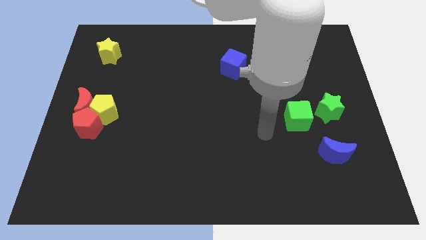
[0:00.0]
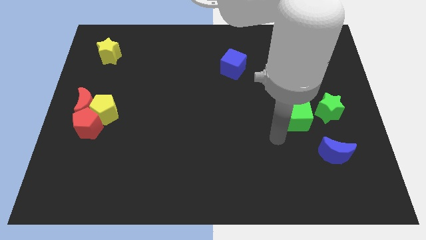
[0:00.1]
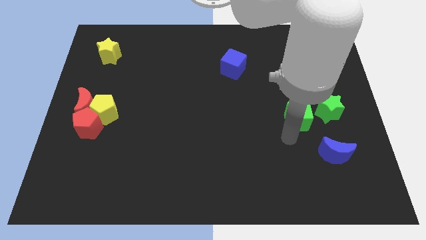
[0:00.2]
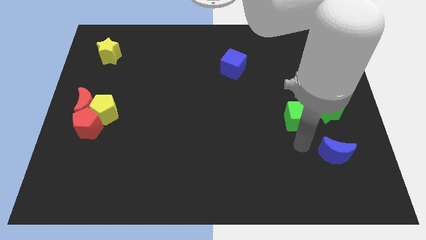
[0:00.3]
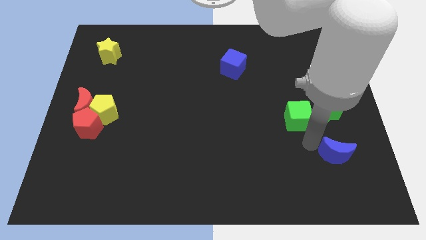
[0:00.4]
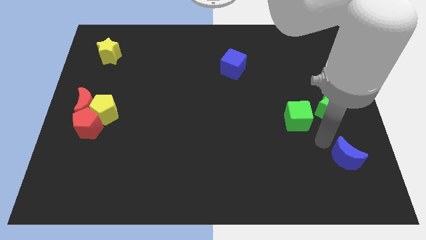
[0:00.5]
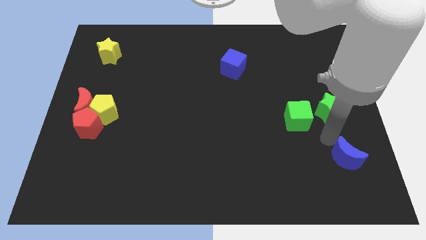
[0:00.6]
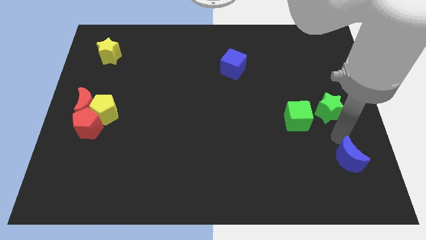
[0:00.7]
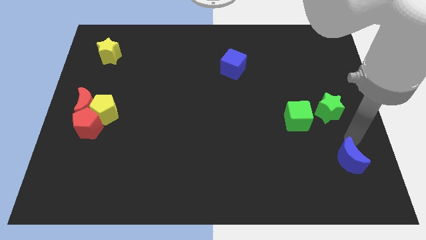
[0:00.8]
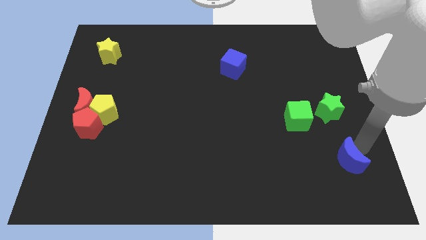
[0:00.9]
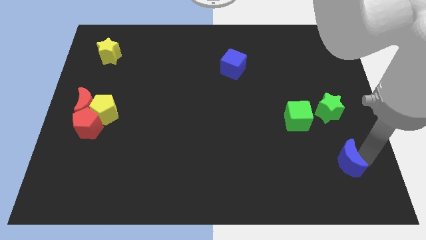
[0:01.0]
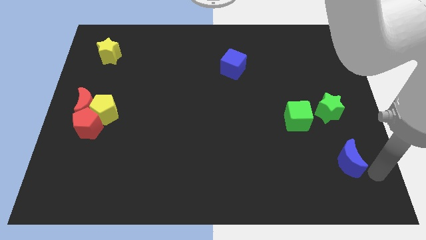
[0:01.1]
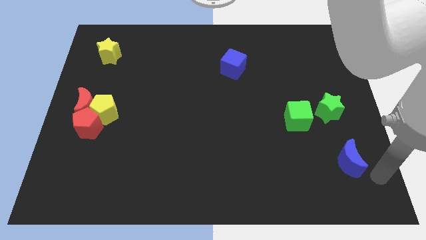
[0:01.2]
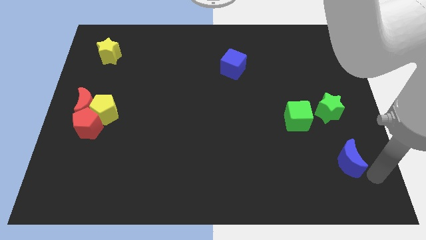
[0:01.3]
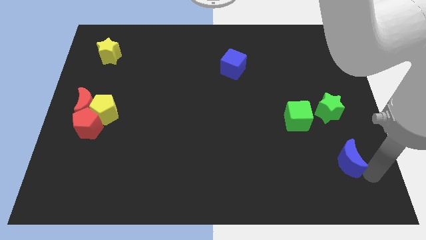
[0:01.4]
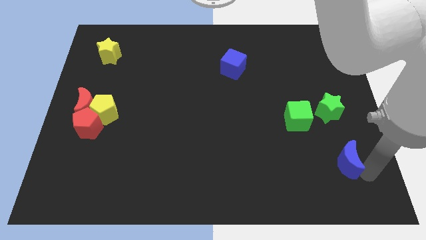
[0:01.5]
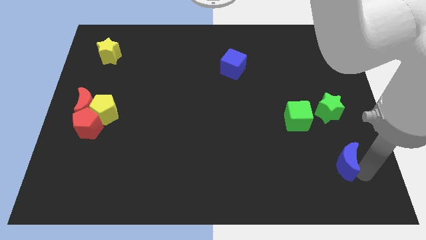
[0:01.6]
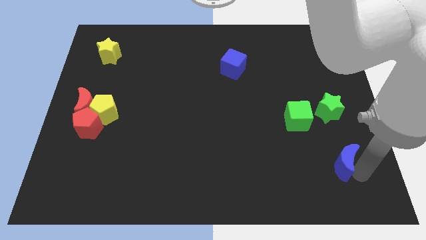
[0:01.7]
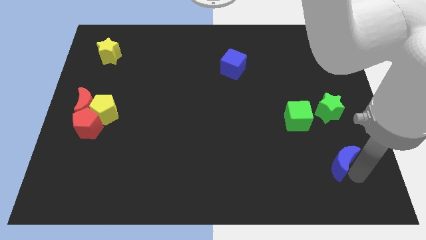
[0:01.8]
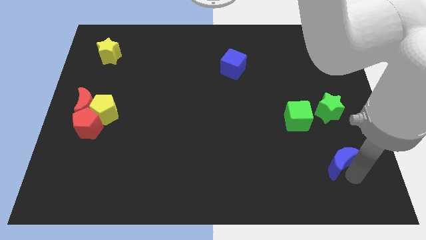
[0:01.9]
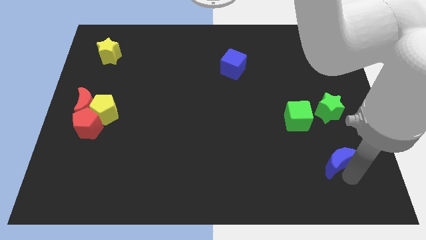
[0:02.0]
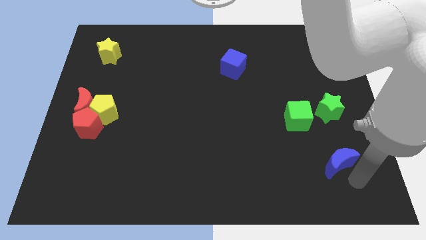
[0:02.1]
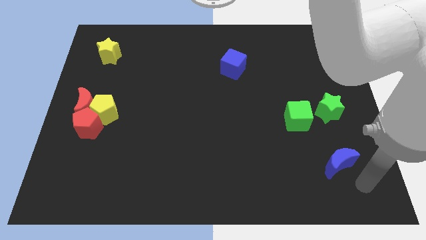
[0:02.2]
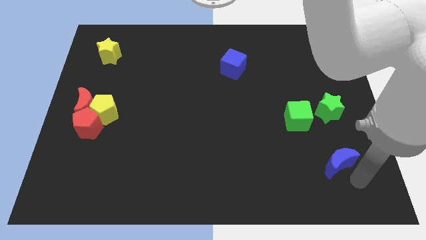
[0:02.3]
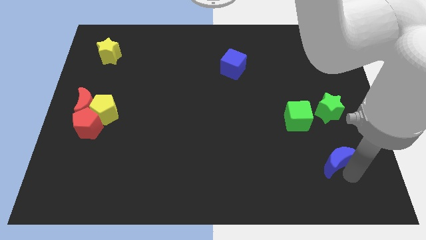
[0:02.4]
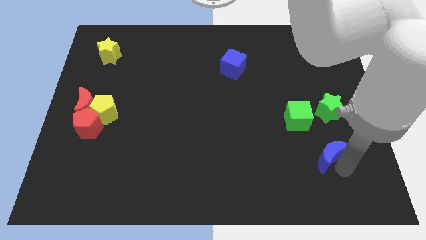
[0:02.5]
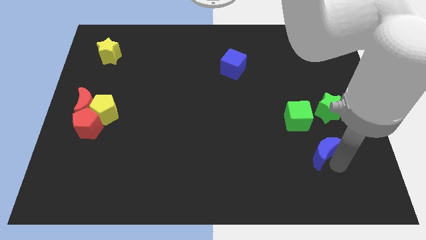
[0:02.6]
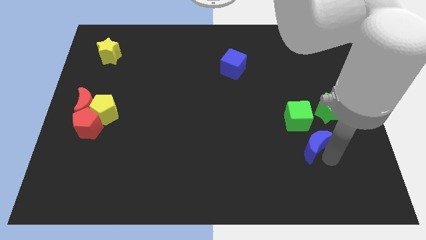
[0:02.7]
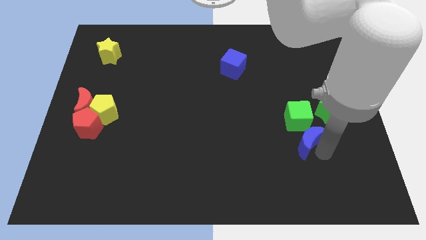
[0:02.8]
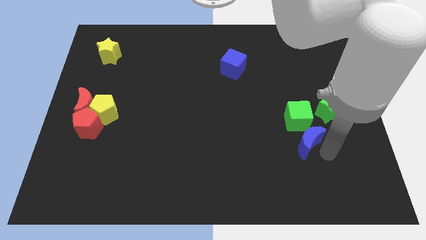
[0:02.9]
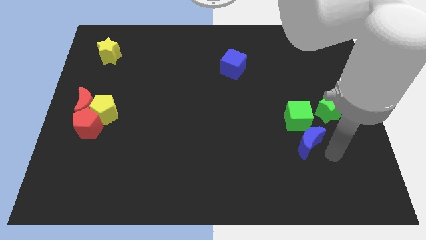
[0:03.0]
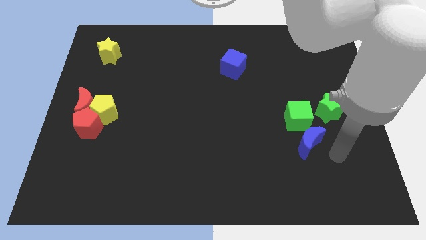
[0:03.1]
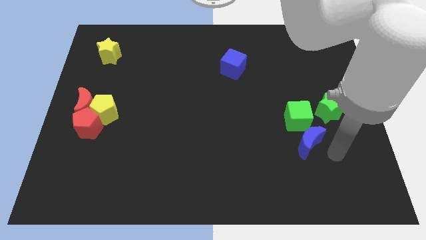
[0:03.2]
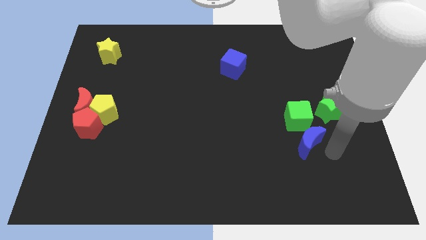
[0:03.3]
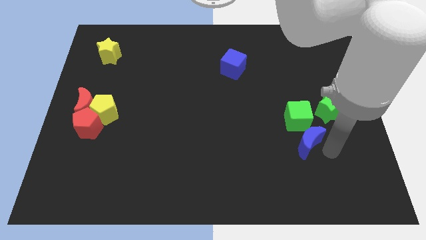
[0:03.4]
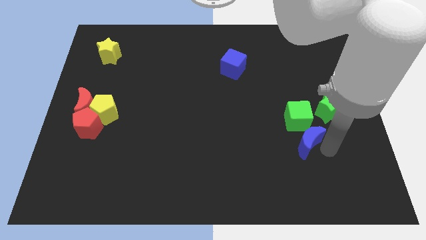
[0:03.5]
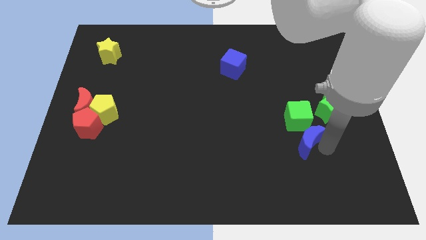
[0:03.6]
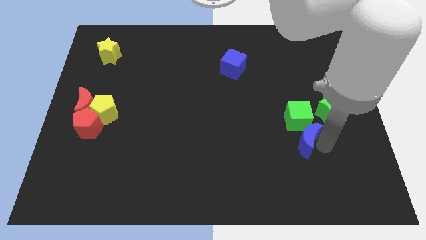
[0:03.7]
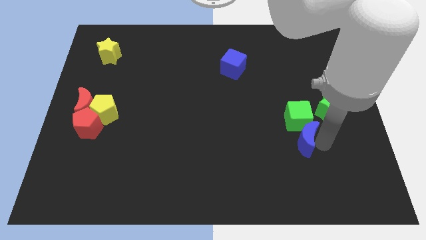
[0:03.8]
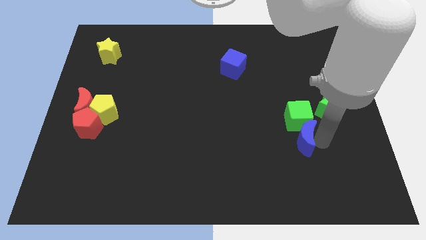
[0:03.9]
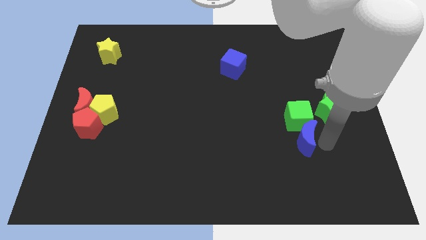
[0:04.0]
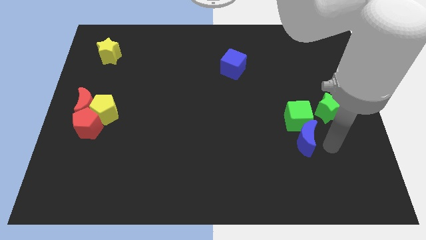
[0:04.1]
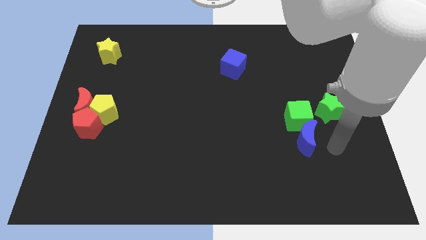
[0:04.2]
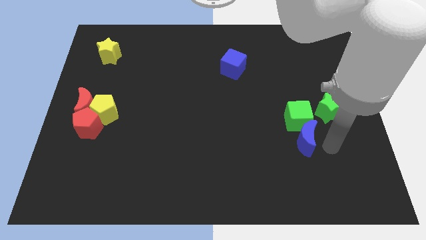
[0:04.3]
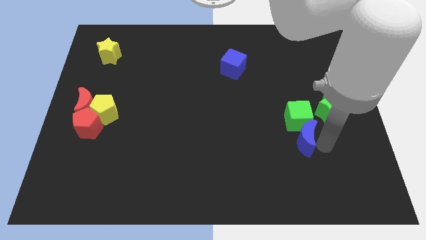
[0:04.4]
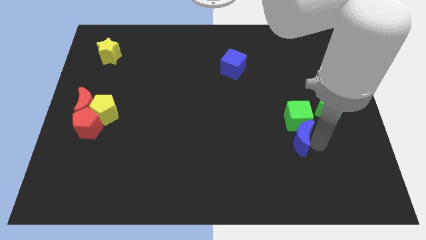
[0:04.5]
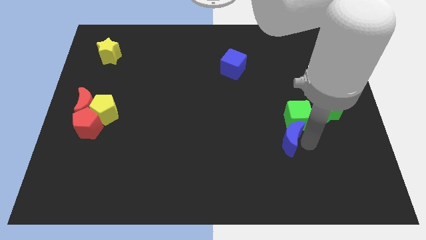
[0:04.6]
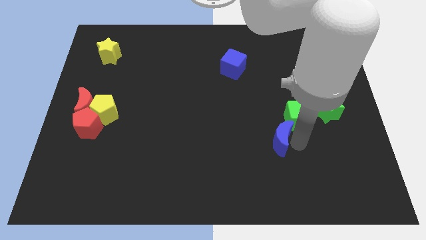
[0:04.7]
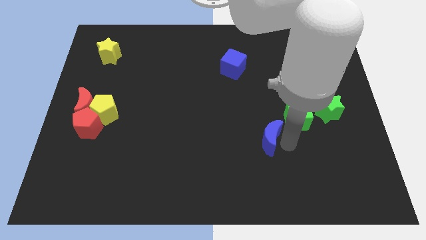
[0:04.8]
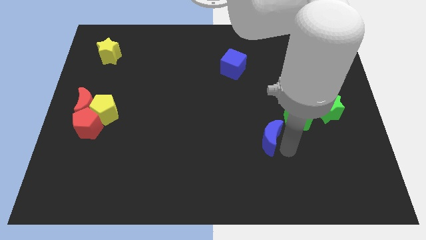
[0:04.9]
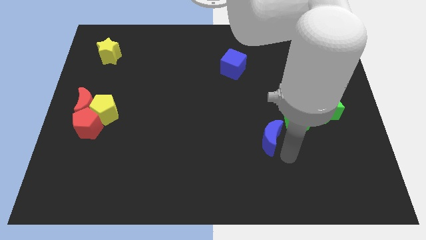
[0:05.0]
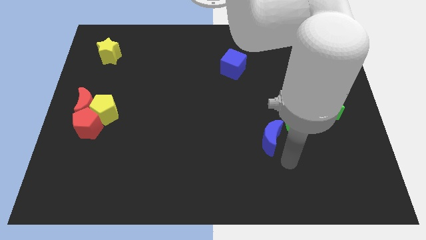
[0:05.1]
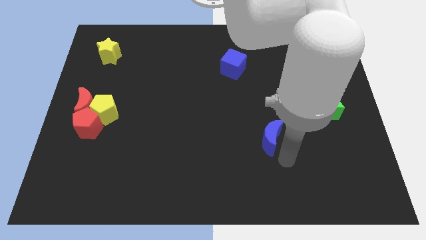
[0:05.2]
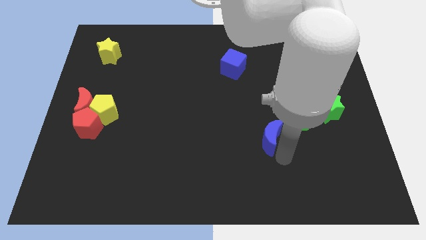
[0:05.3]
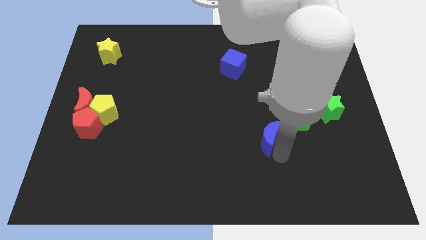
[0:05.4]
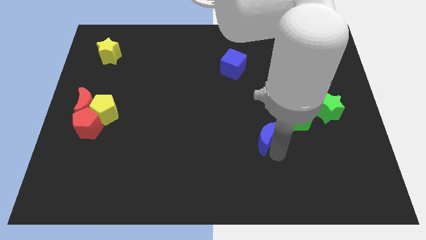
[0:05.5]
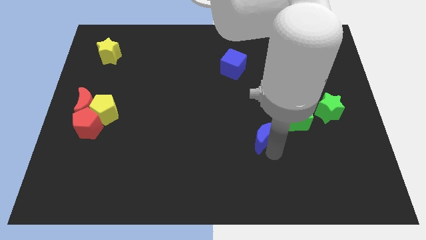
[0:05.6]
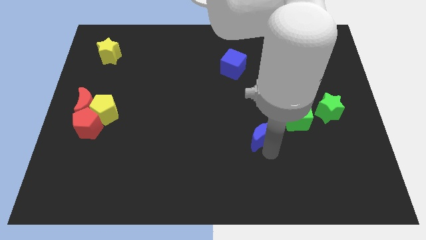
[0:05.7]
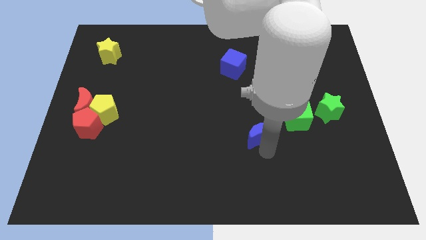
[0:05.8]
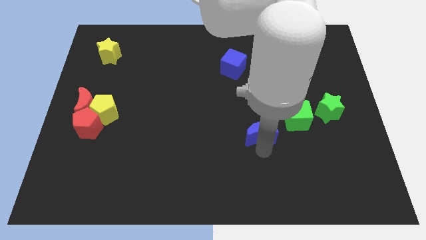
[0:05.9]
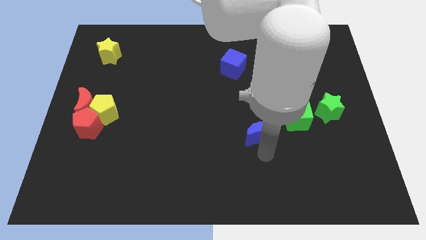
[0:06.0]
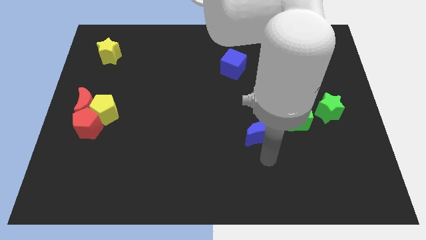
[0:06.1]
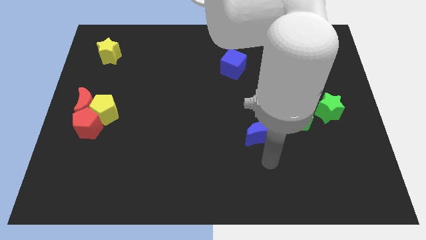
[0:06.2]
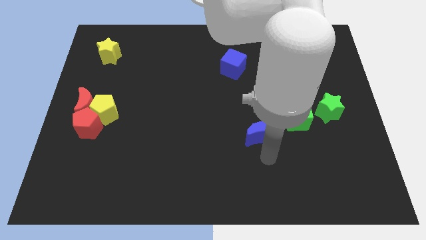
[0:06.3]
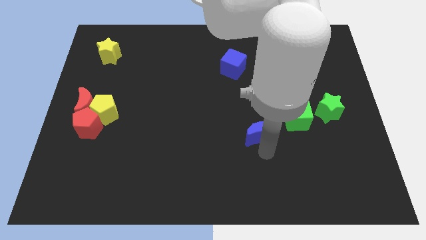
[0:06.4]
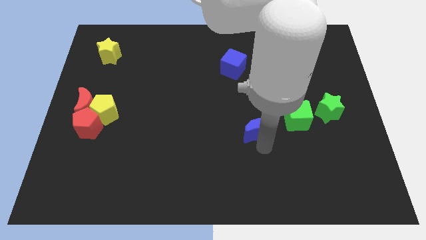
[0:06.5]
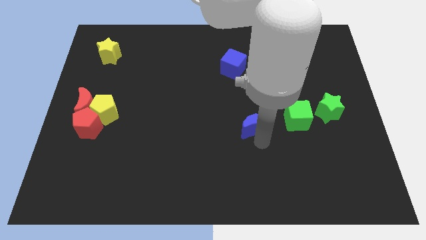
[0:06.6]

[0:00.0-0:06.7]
move the blue moon to the center
